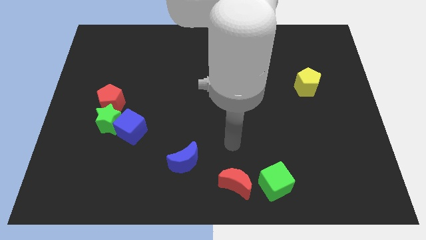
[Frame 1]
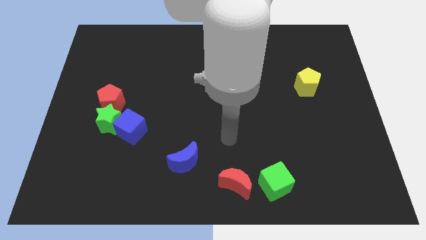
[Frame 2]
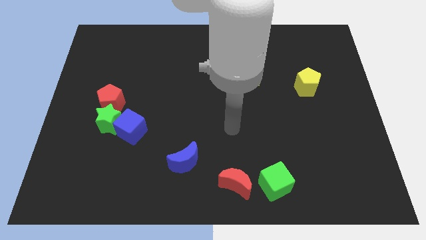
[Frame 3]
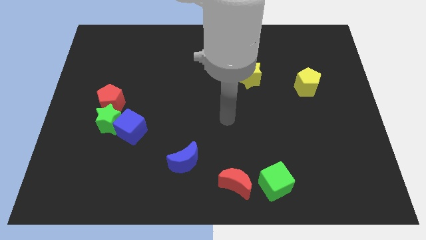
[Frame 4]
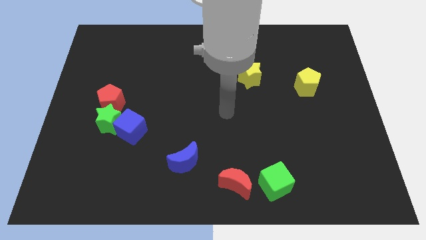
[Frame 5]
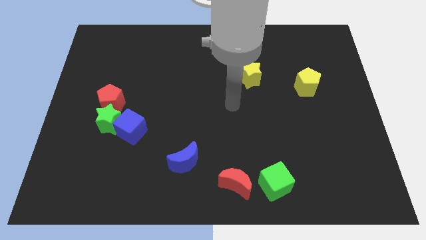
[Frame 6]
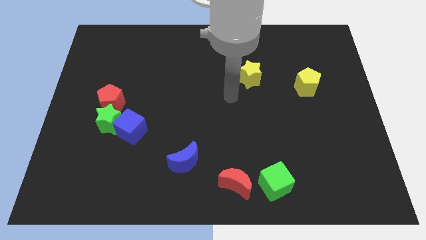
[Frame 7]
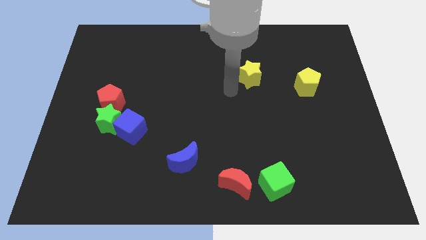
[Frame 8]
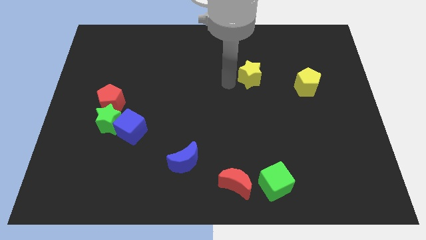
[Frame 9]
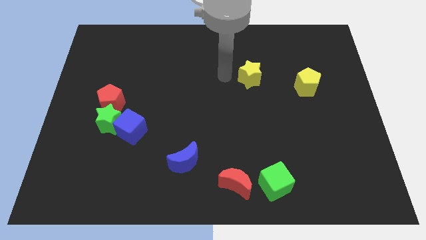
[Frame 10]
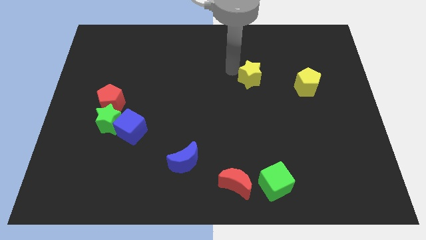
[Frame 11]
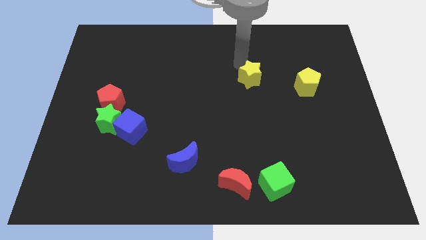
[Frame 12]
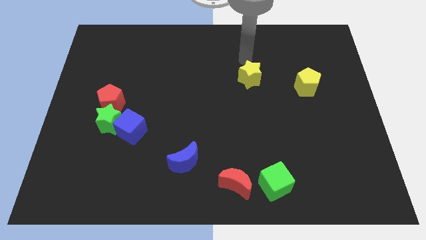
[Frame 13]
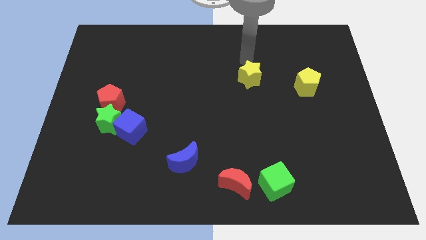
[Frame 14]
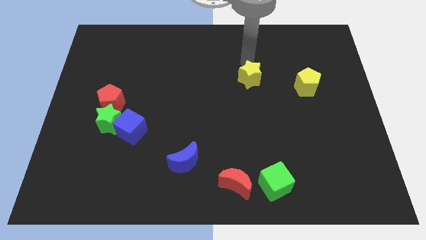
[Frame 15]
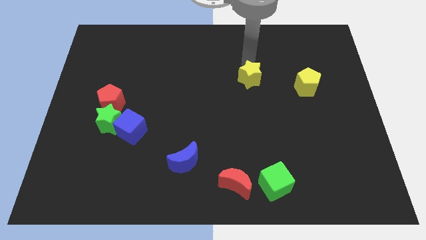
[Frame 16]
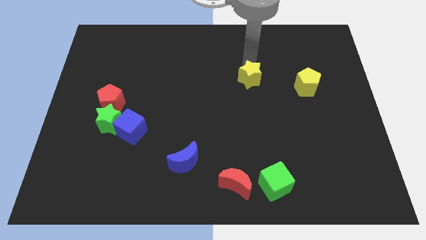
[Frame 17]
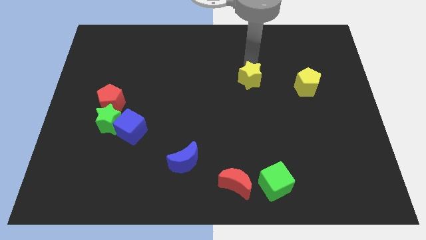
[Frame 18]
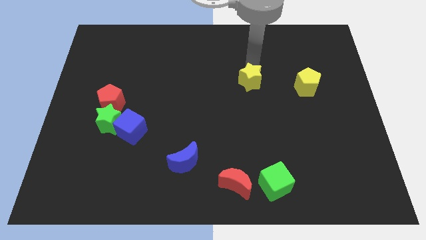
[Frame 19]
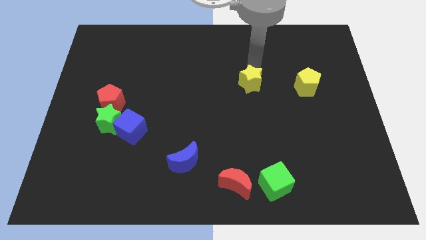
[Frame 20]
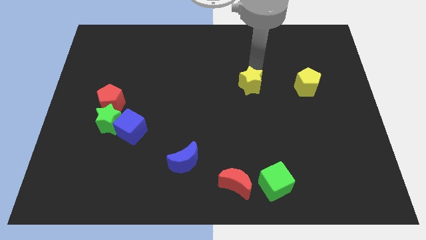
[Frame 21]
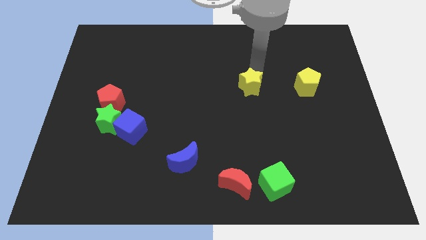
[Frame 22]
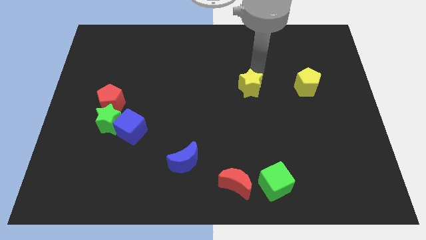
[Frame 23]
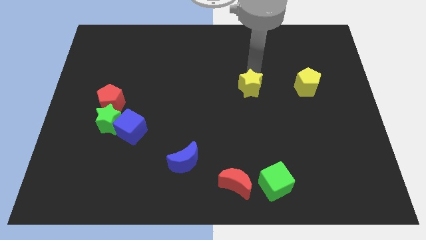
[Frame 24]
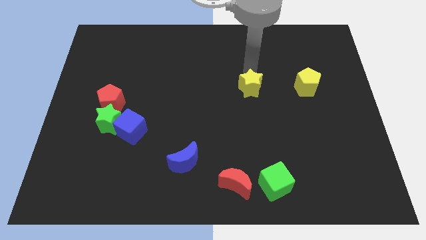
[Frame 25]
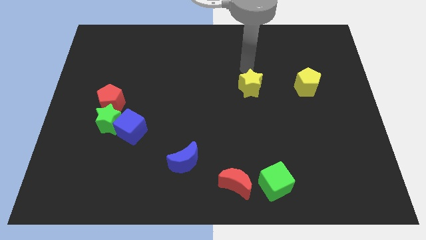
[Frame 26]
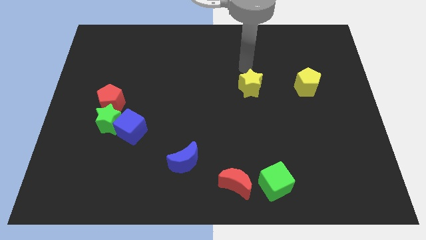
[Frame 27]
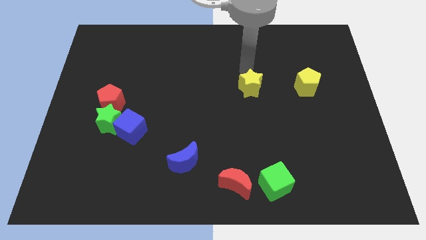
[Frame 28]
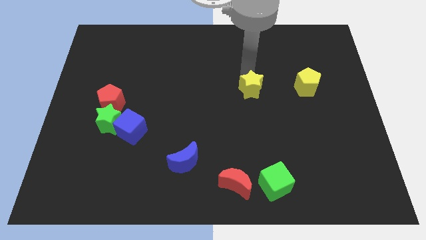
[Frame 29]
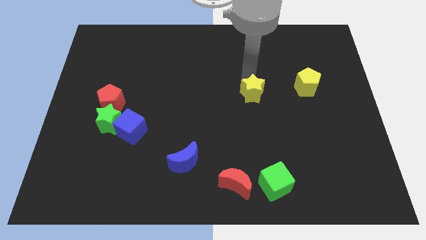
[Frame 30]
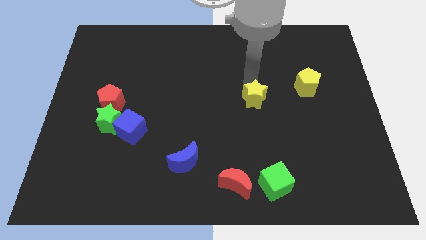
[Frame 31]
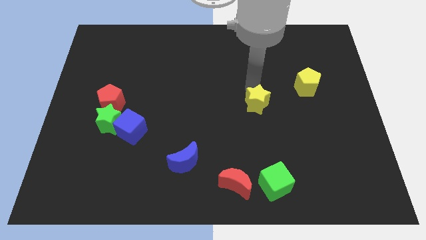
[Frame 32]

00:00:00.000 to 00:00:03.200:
push the yellow star down a little

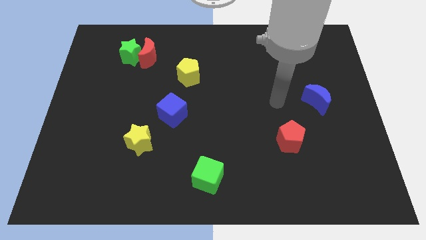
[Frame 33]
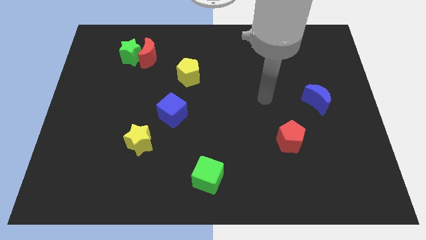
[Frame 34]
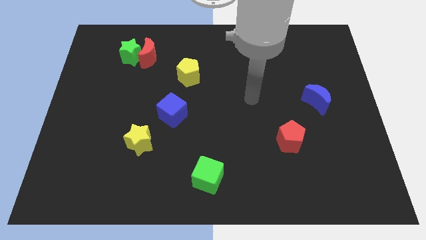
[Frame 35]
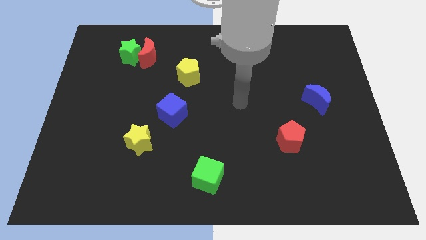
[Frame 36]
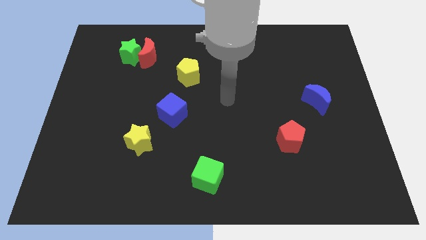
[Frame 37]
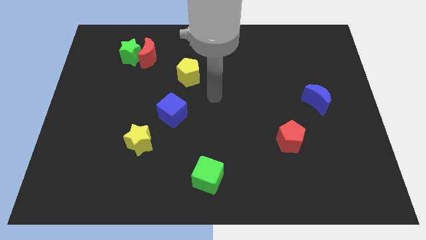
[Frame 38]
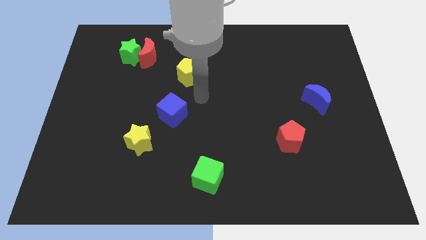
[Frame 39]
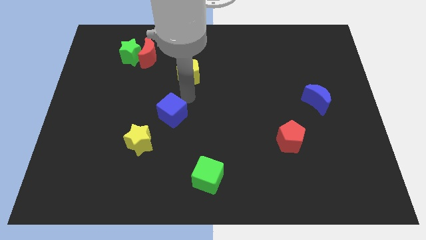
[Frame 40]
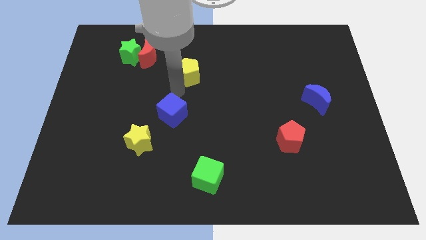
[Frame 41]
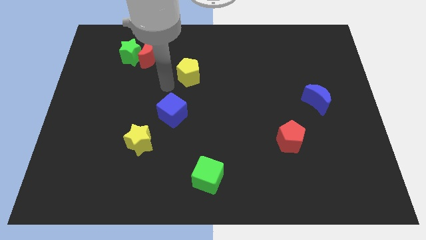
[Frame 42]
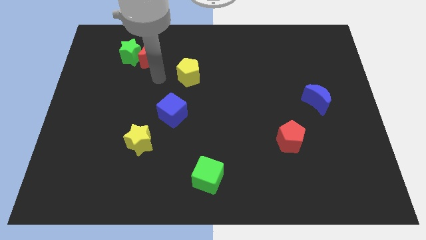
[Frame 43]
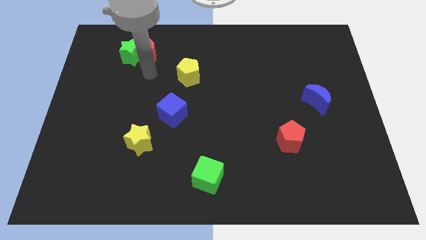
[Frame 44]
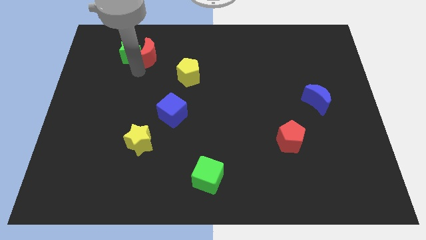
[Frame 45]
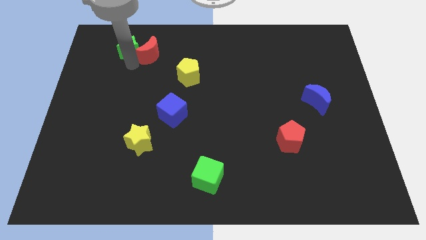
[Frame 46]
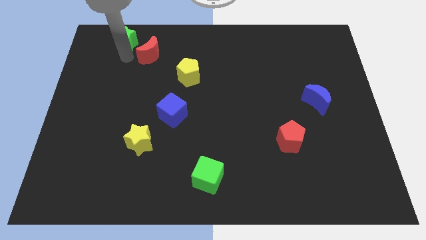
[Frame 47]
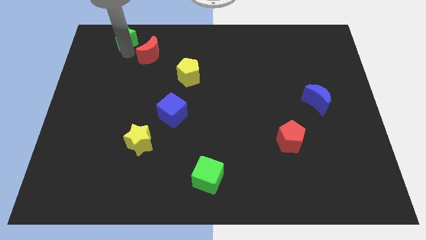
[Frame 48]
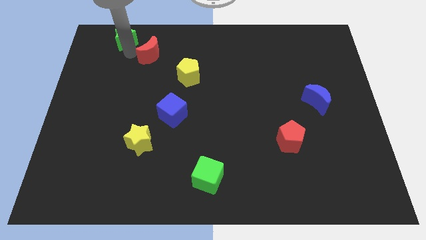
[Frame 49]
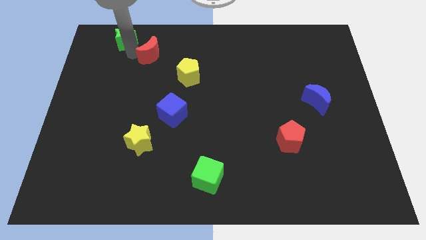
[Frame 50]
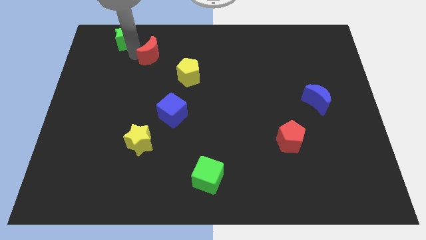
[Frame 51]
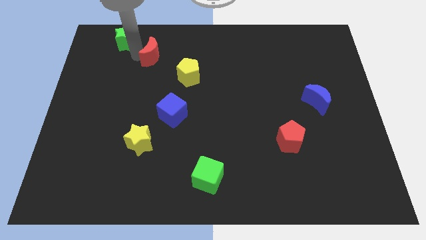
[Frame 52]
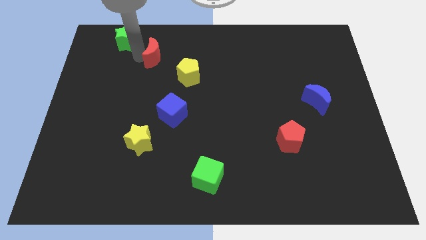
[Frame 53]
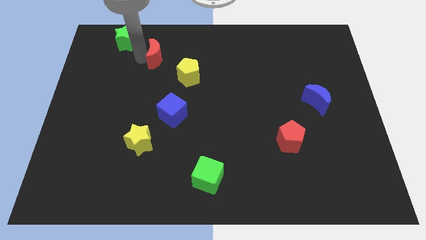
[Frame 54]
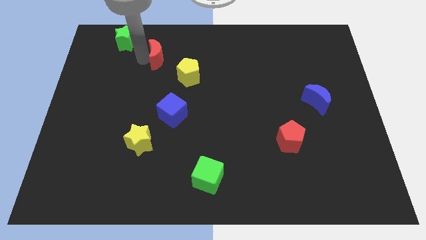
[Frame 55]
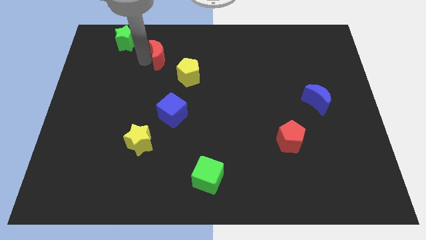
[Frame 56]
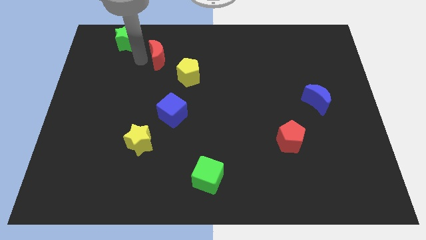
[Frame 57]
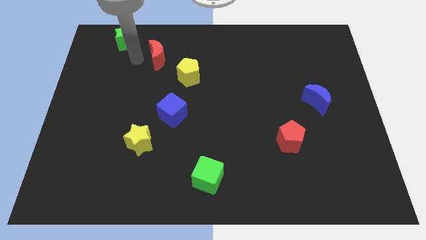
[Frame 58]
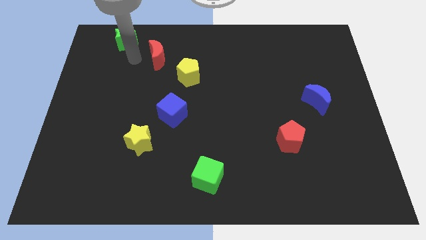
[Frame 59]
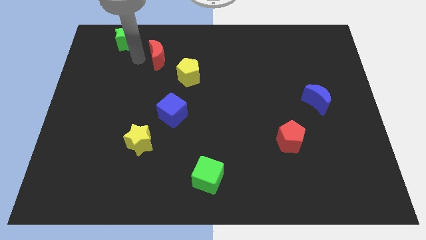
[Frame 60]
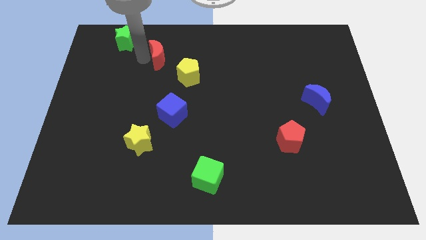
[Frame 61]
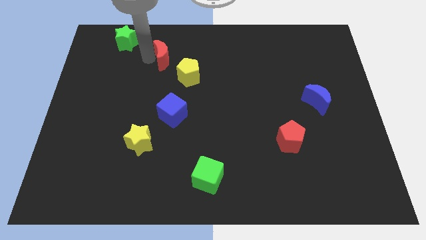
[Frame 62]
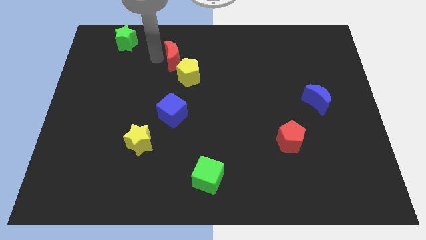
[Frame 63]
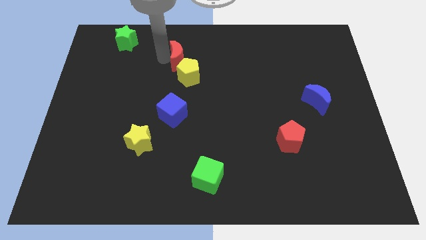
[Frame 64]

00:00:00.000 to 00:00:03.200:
push the red moon a bit to the right

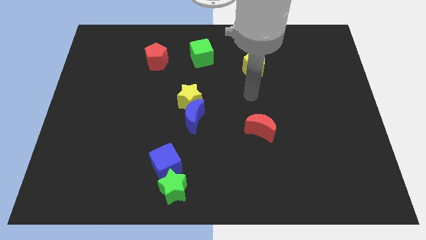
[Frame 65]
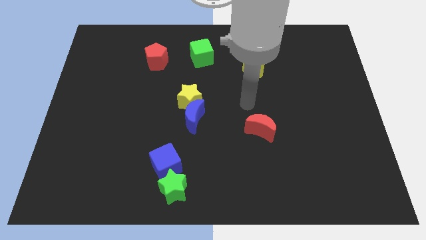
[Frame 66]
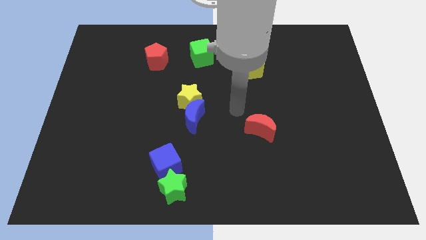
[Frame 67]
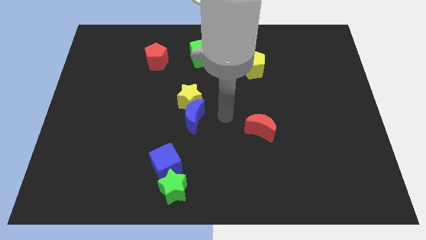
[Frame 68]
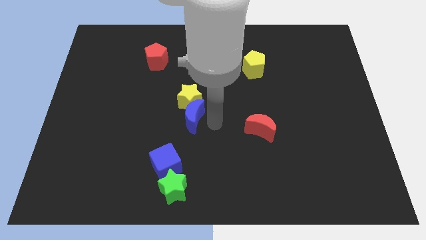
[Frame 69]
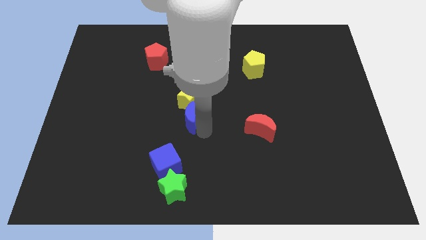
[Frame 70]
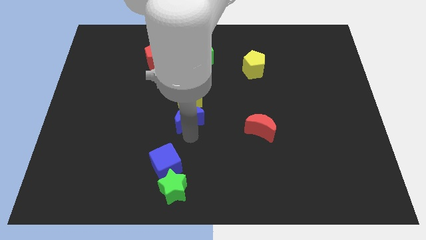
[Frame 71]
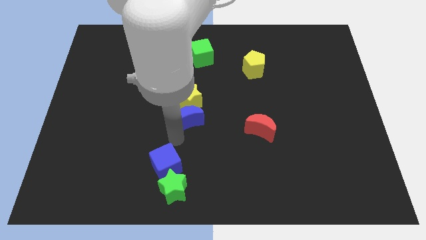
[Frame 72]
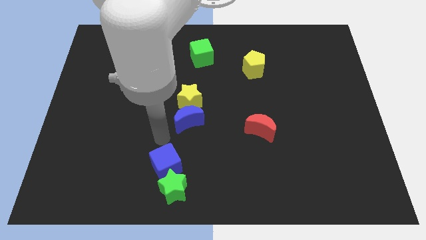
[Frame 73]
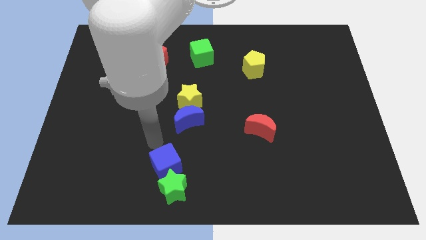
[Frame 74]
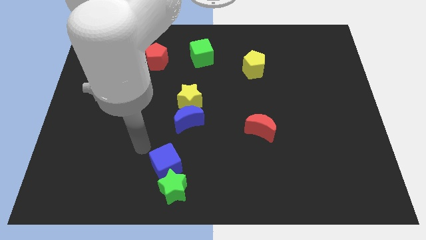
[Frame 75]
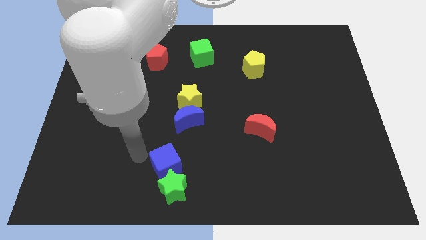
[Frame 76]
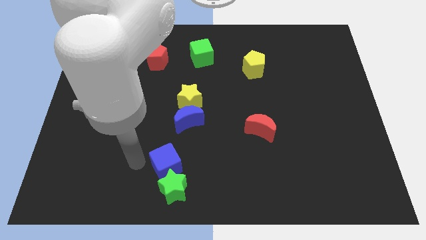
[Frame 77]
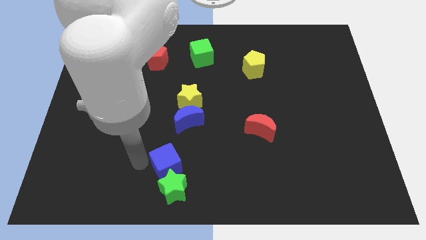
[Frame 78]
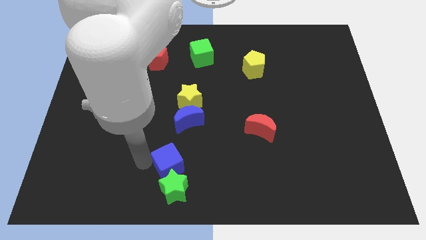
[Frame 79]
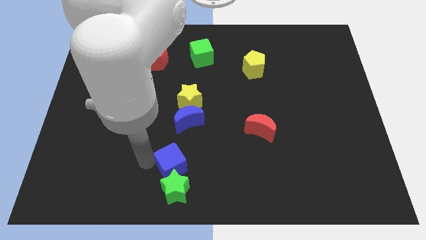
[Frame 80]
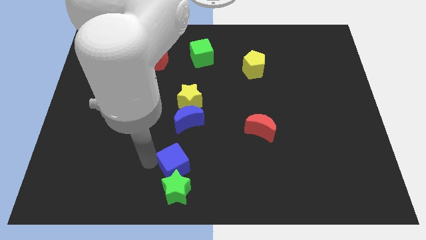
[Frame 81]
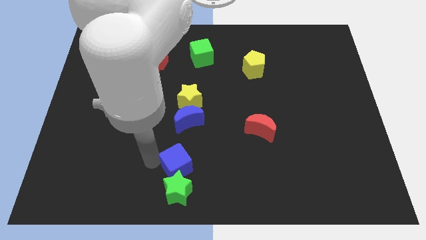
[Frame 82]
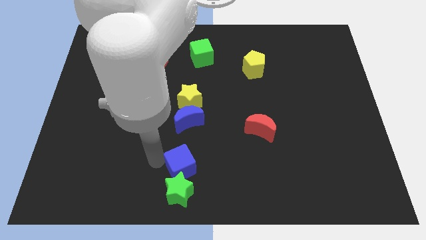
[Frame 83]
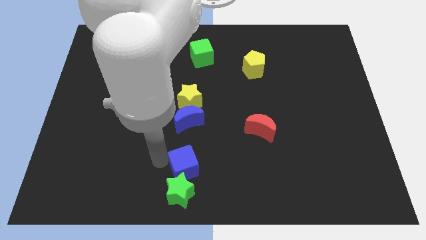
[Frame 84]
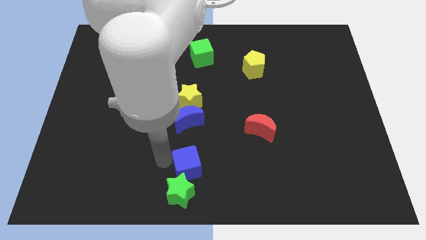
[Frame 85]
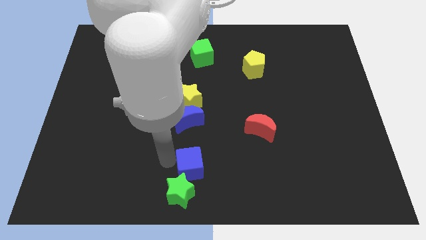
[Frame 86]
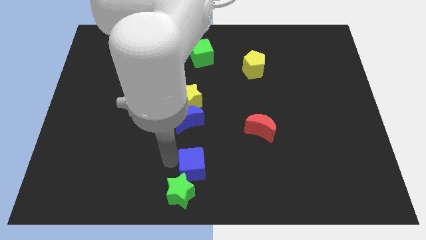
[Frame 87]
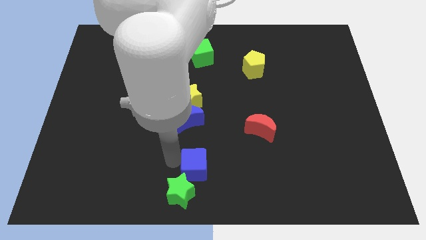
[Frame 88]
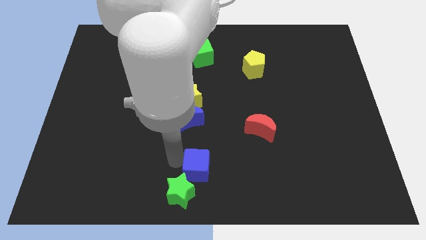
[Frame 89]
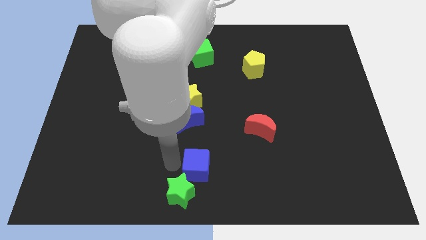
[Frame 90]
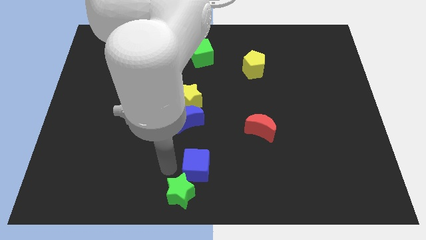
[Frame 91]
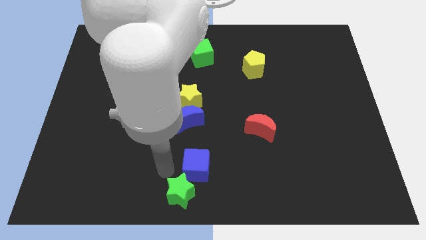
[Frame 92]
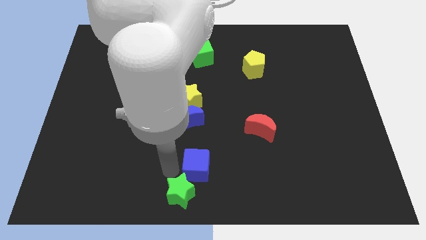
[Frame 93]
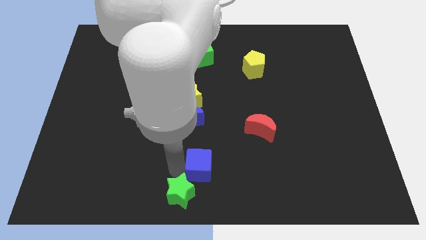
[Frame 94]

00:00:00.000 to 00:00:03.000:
move the blue cube right somewhat
